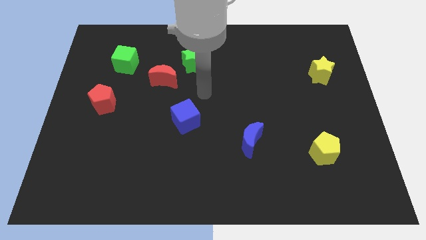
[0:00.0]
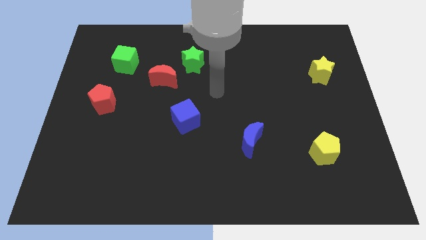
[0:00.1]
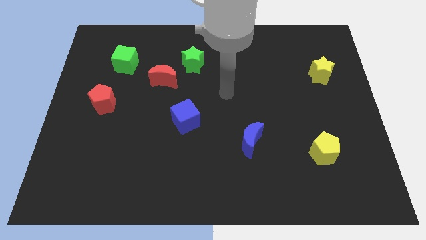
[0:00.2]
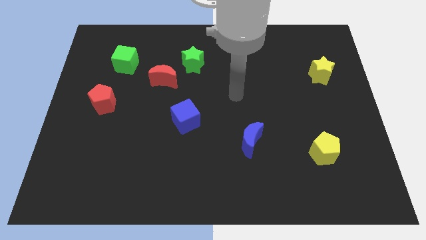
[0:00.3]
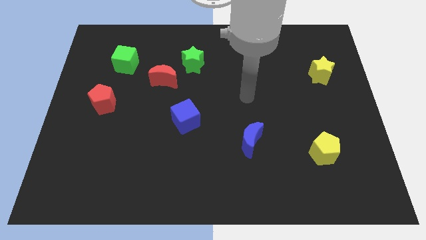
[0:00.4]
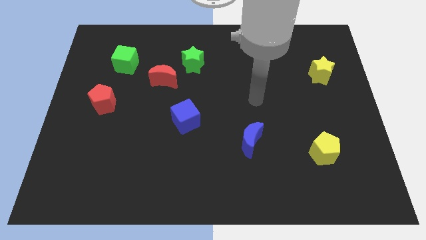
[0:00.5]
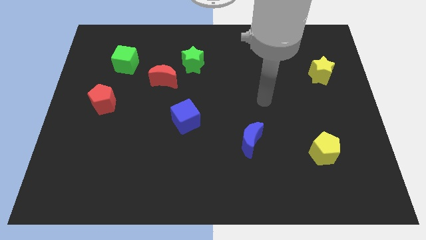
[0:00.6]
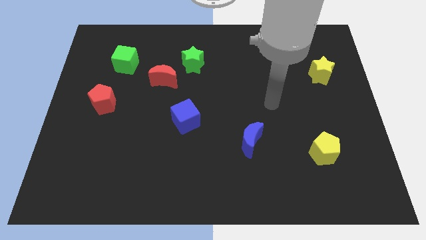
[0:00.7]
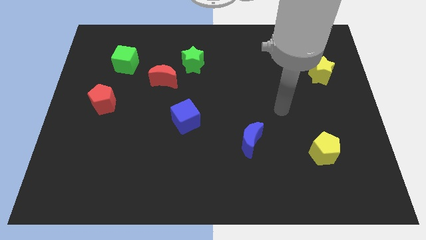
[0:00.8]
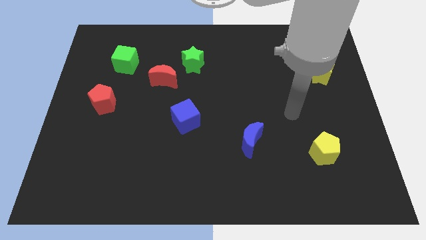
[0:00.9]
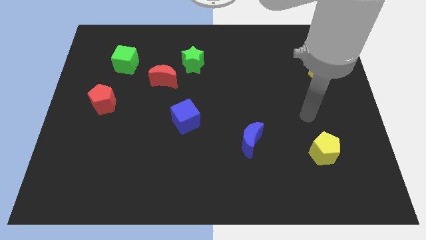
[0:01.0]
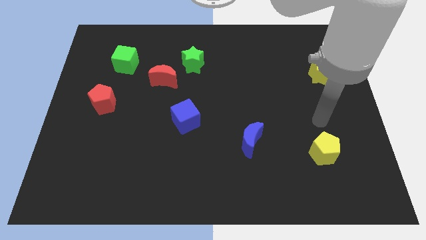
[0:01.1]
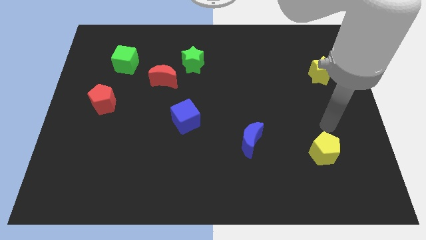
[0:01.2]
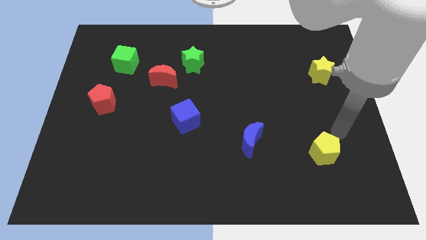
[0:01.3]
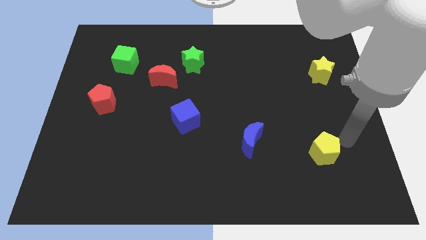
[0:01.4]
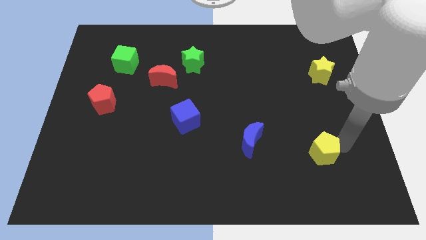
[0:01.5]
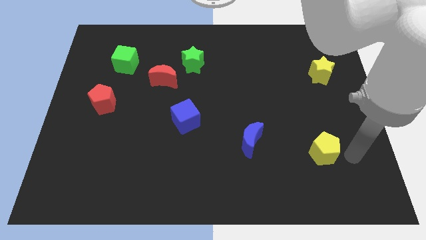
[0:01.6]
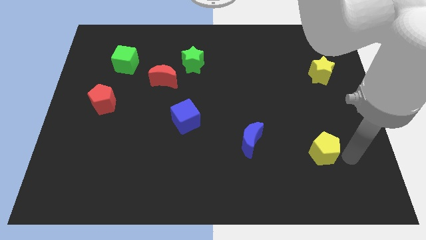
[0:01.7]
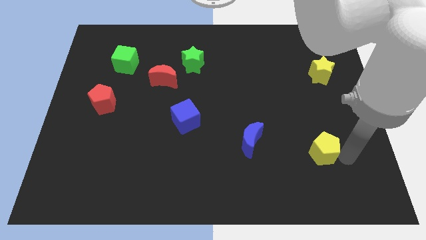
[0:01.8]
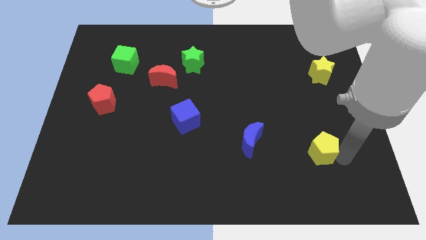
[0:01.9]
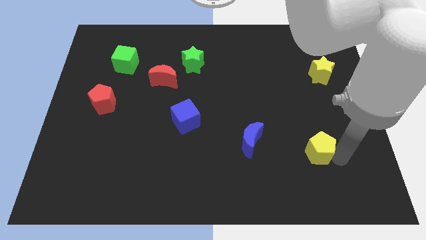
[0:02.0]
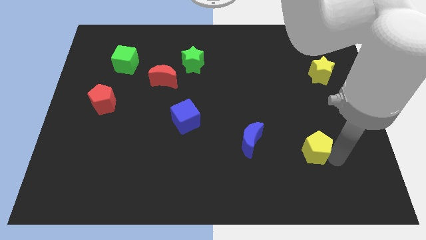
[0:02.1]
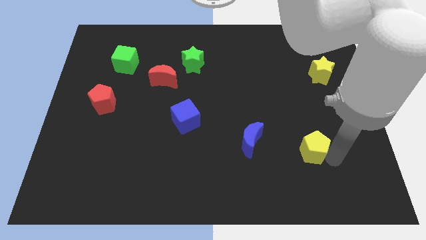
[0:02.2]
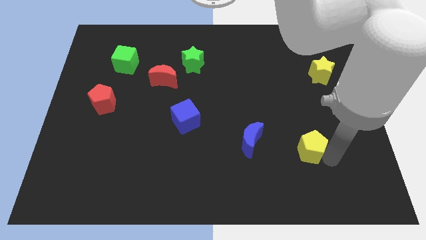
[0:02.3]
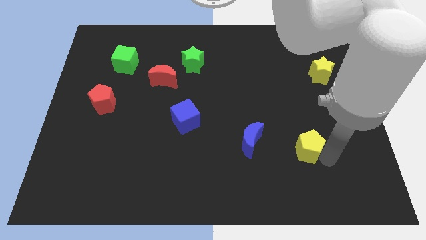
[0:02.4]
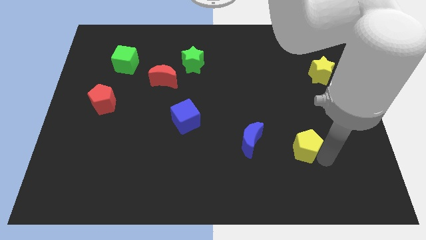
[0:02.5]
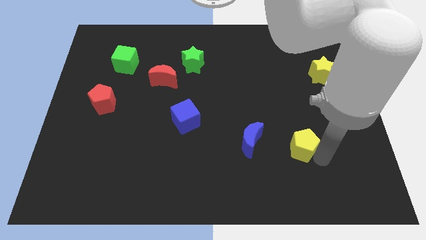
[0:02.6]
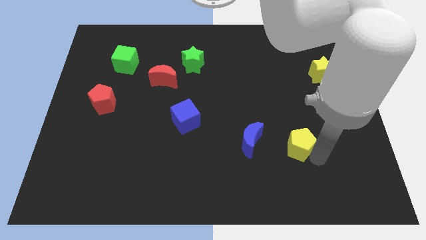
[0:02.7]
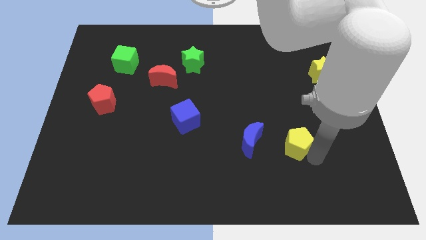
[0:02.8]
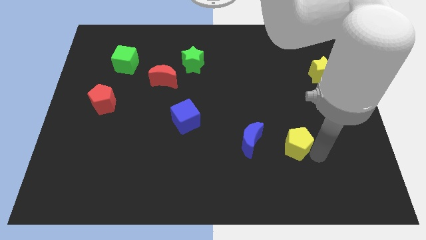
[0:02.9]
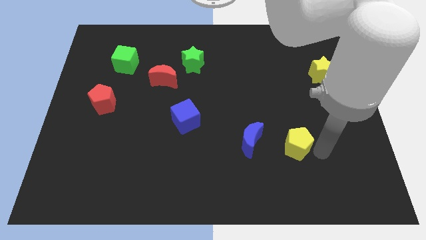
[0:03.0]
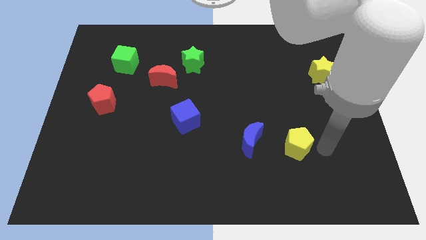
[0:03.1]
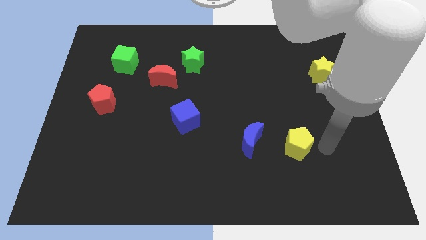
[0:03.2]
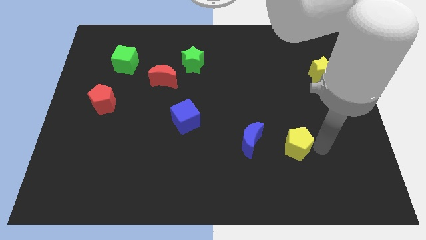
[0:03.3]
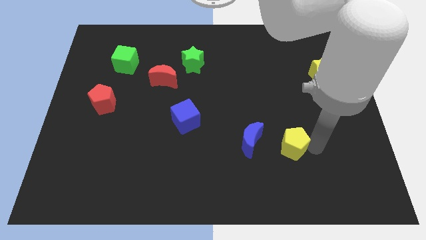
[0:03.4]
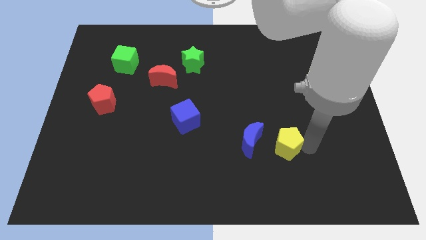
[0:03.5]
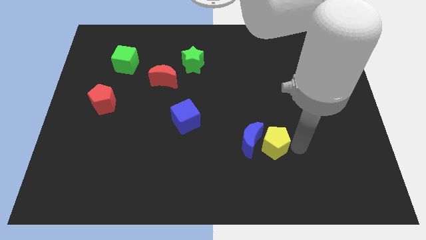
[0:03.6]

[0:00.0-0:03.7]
slide the yellow pentagon close to the blue moon

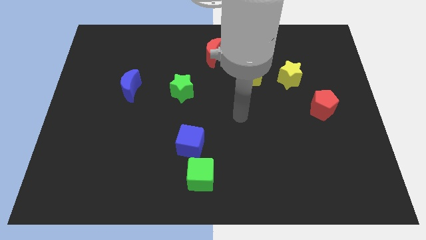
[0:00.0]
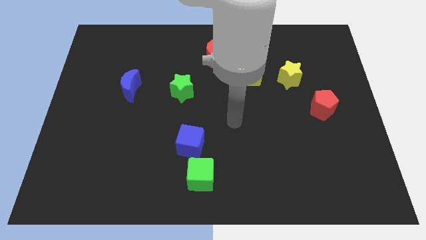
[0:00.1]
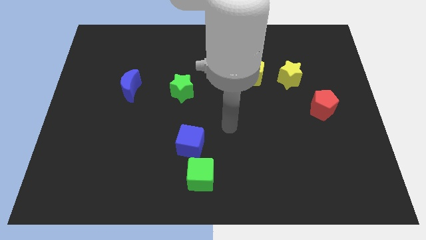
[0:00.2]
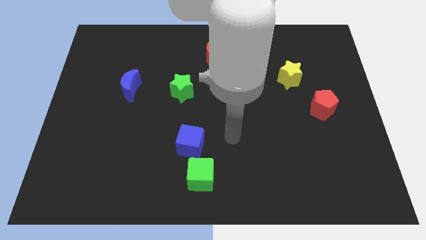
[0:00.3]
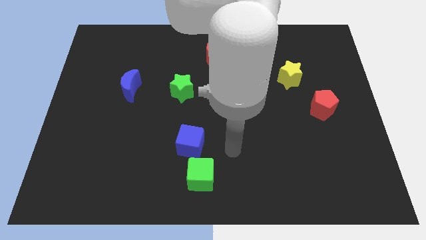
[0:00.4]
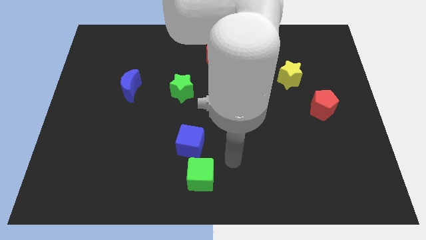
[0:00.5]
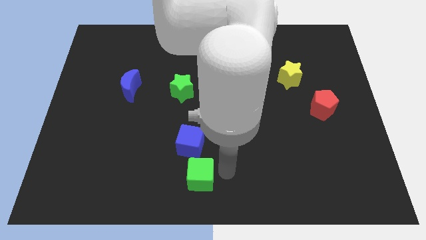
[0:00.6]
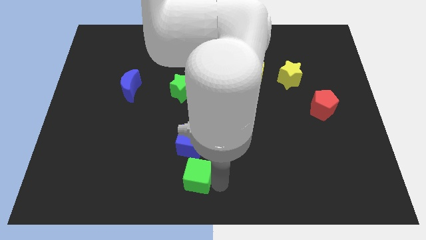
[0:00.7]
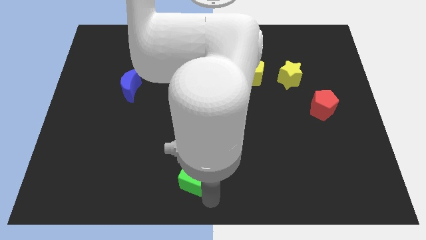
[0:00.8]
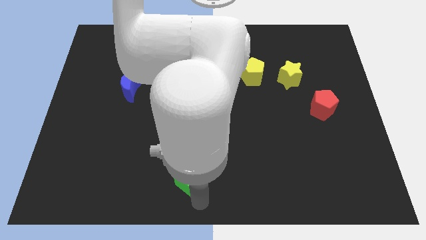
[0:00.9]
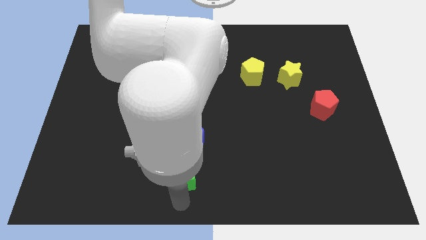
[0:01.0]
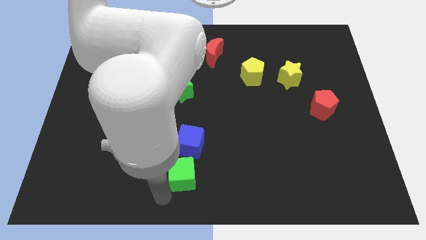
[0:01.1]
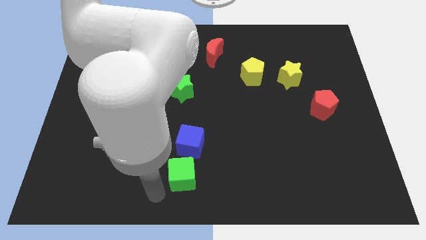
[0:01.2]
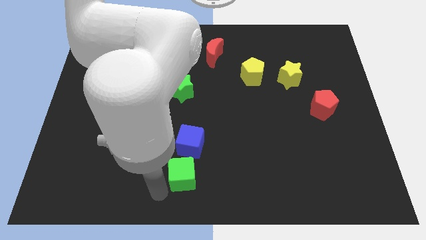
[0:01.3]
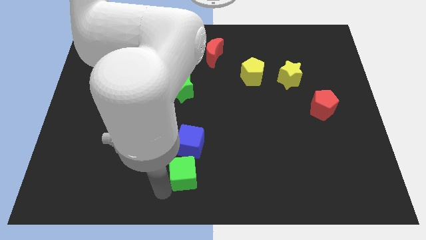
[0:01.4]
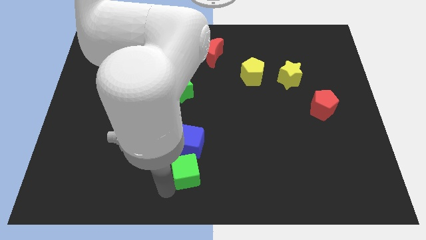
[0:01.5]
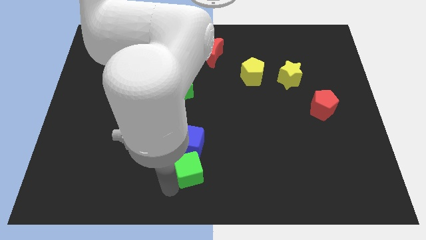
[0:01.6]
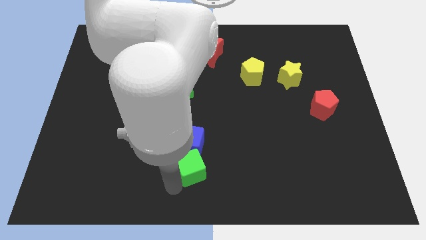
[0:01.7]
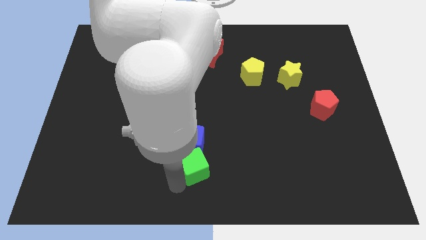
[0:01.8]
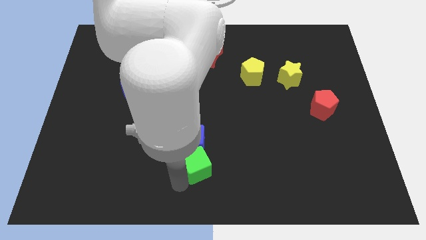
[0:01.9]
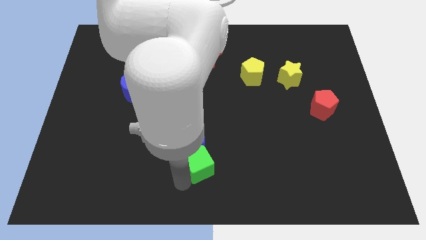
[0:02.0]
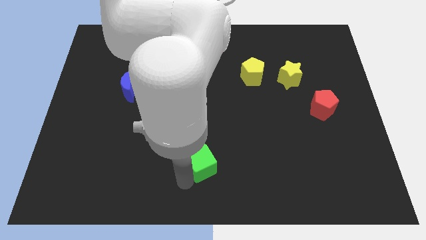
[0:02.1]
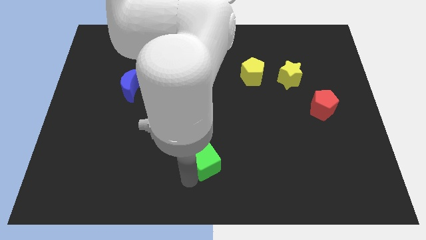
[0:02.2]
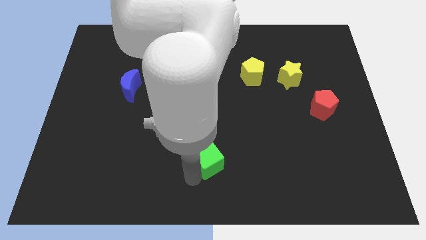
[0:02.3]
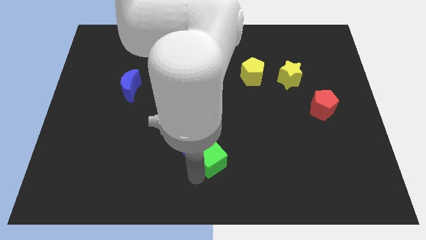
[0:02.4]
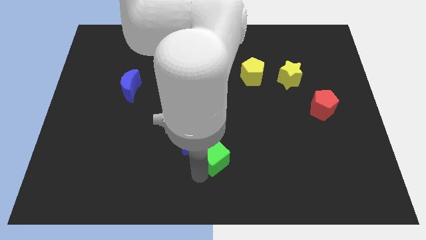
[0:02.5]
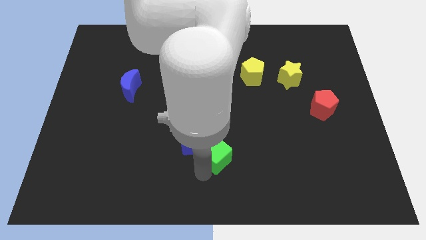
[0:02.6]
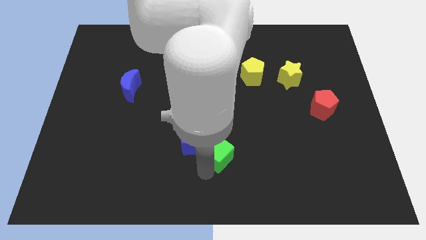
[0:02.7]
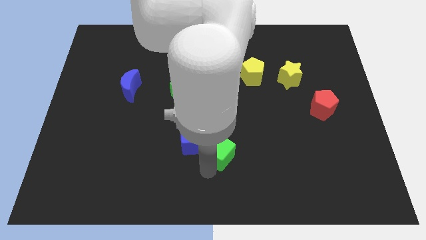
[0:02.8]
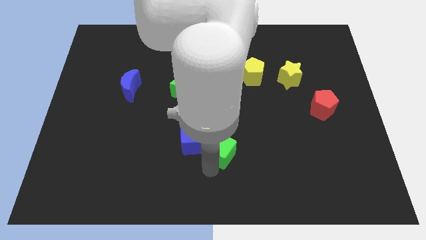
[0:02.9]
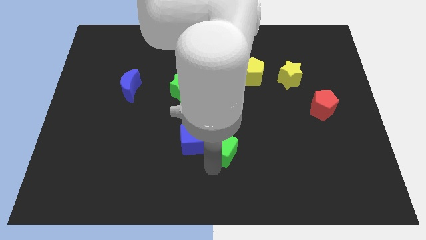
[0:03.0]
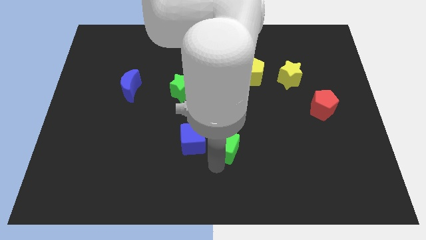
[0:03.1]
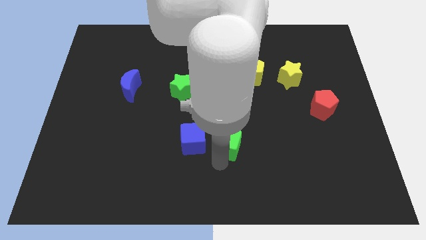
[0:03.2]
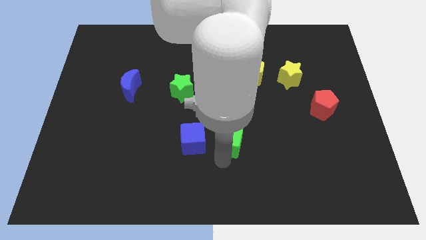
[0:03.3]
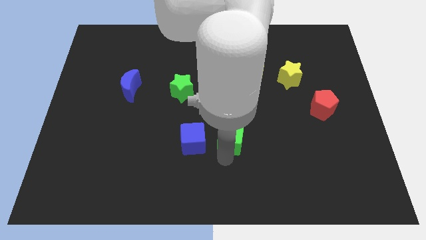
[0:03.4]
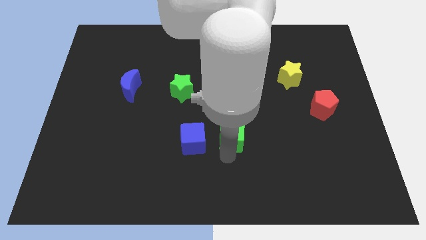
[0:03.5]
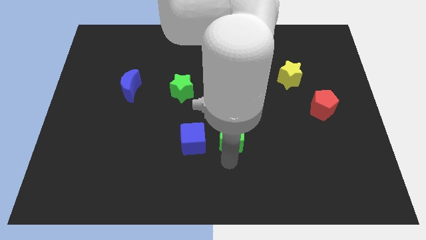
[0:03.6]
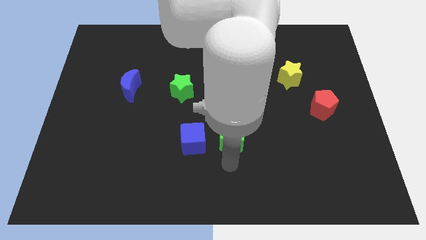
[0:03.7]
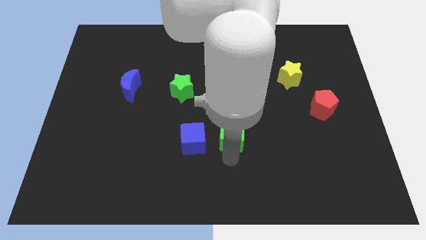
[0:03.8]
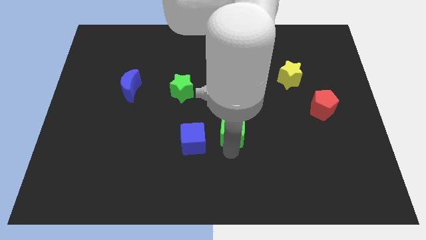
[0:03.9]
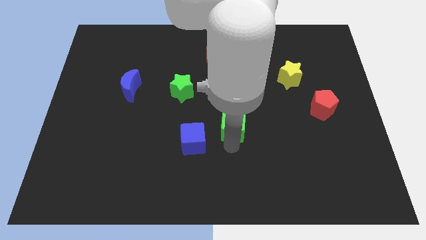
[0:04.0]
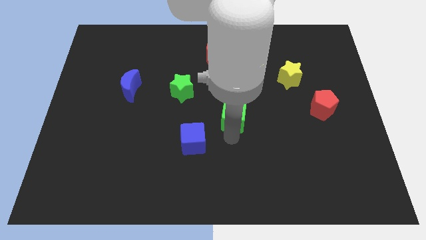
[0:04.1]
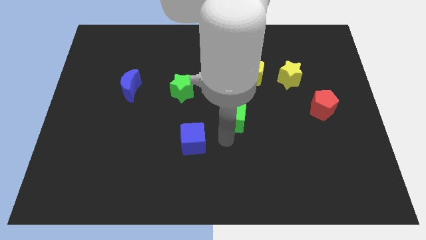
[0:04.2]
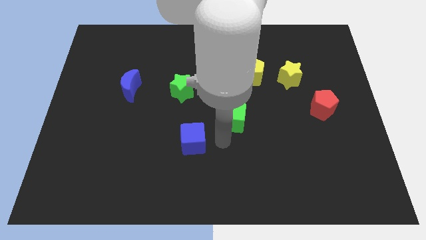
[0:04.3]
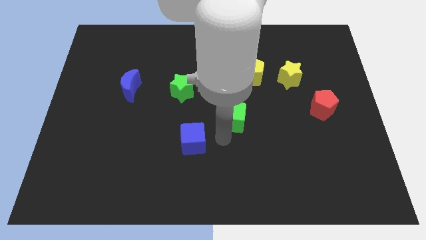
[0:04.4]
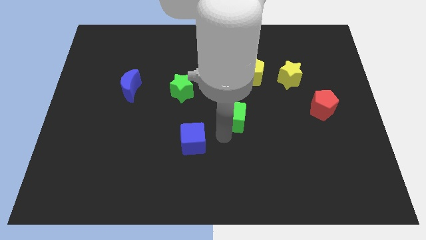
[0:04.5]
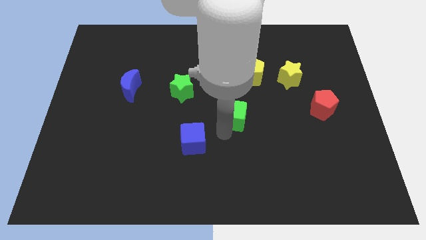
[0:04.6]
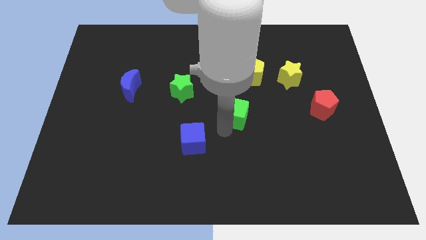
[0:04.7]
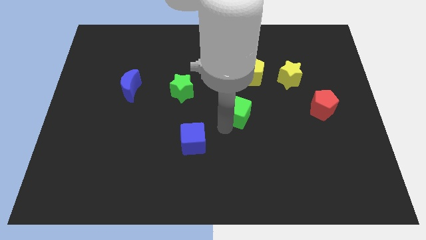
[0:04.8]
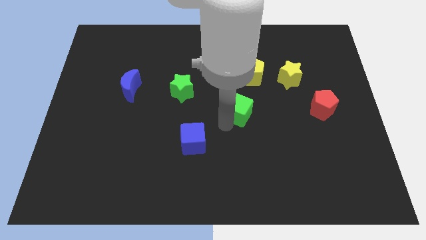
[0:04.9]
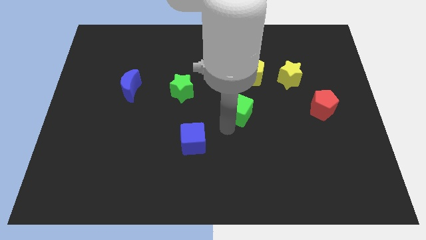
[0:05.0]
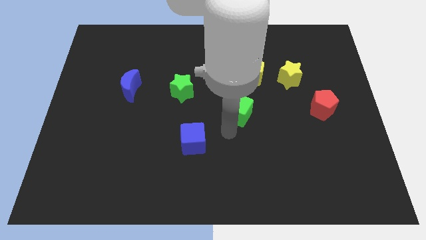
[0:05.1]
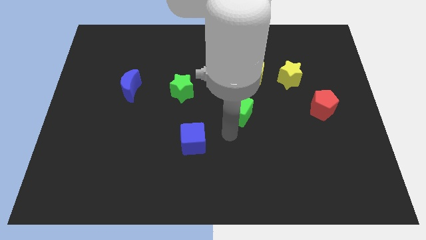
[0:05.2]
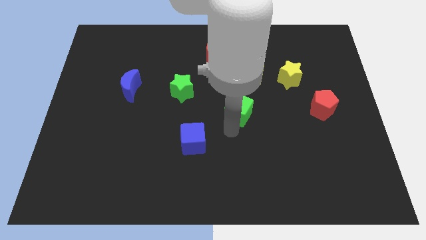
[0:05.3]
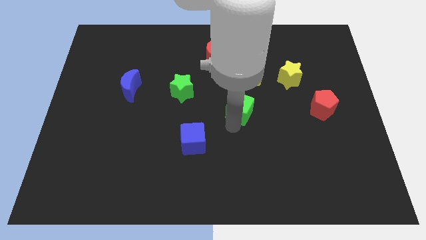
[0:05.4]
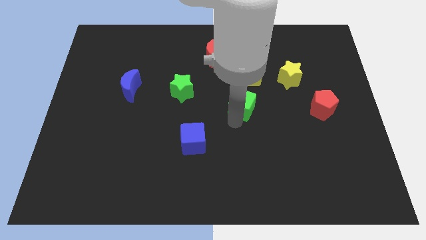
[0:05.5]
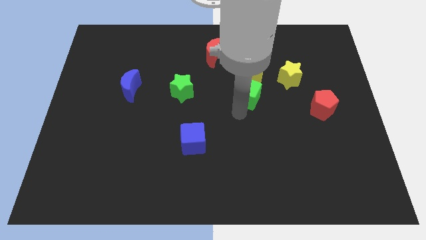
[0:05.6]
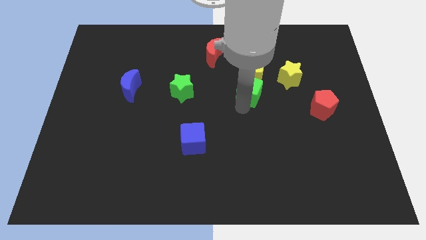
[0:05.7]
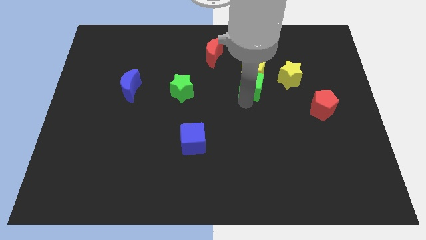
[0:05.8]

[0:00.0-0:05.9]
put the green cube to the yellow pentagon
